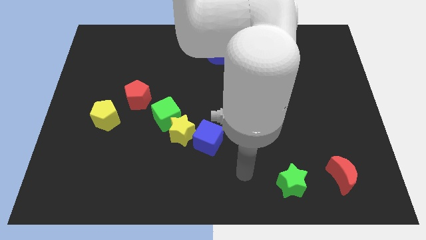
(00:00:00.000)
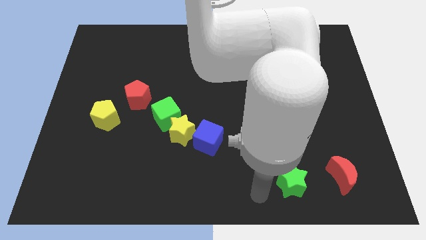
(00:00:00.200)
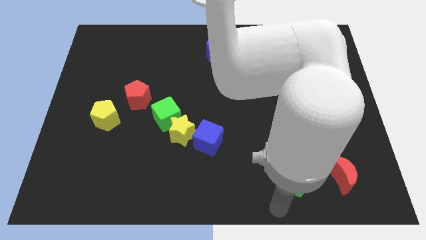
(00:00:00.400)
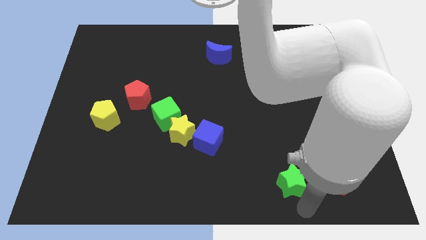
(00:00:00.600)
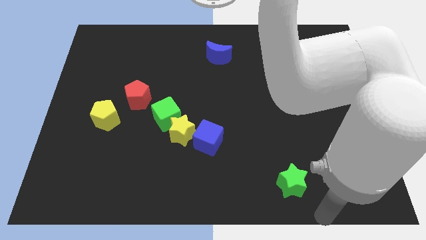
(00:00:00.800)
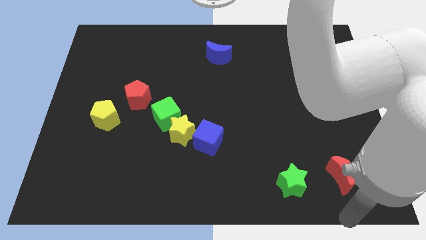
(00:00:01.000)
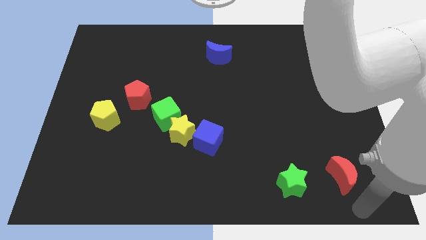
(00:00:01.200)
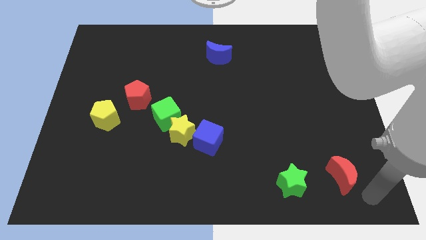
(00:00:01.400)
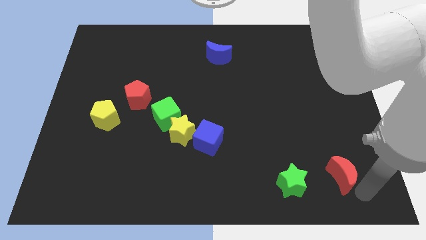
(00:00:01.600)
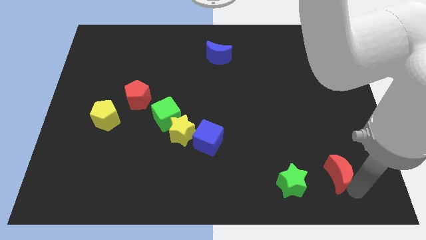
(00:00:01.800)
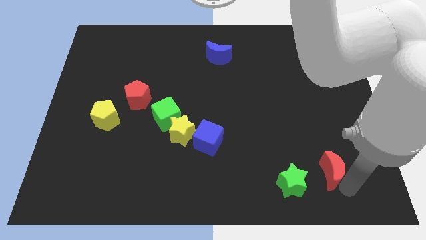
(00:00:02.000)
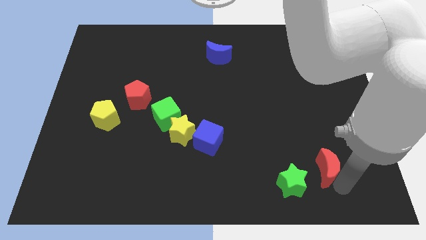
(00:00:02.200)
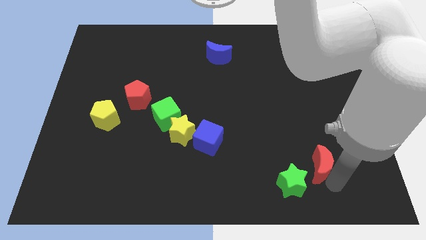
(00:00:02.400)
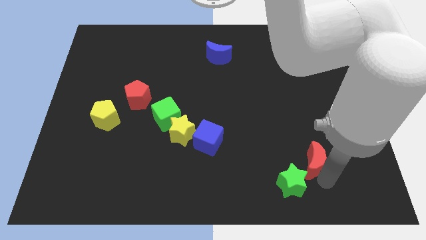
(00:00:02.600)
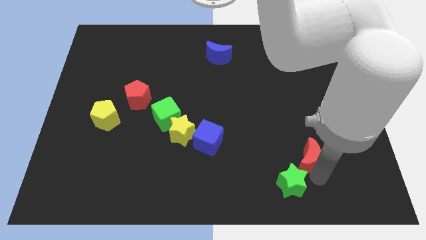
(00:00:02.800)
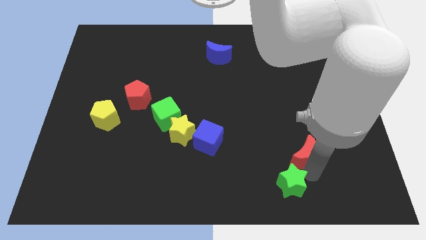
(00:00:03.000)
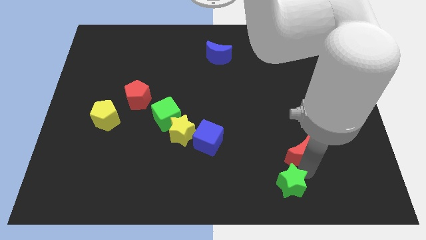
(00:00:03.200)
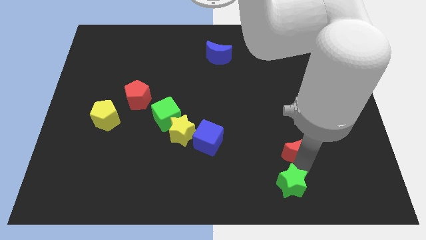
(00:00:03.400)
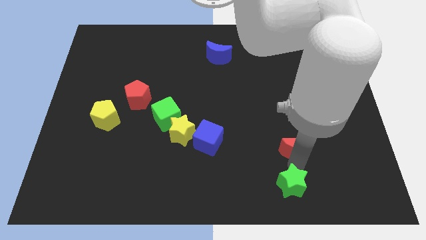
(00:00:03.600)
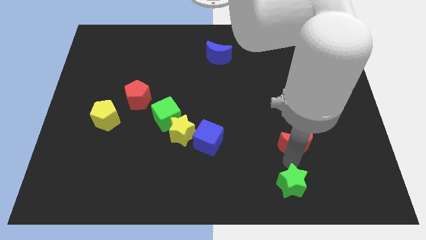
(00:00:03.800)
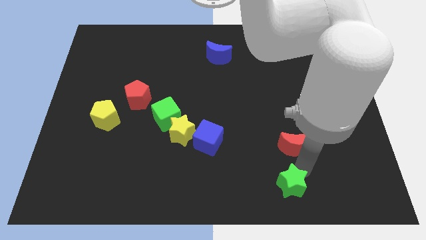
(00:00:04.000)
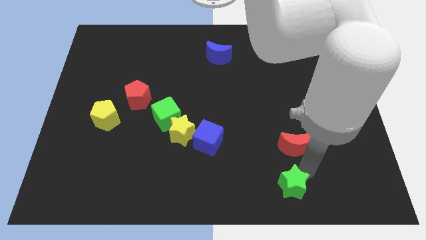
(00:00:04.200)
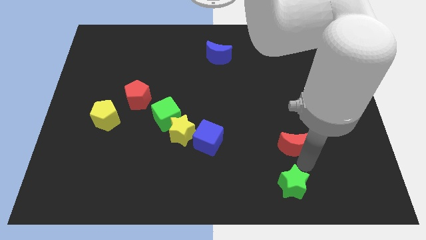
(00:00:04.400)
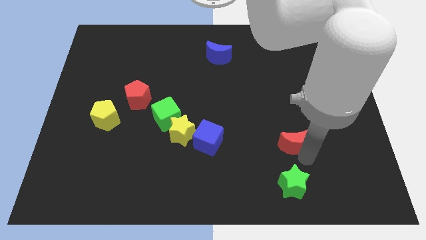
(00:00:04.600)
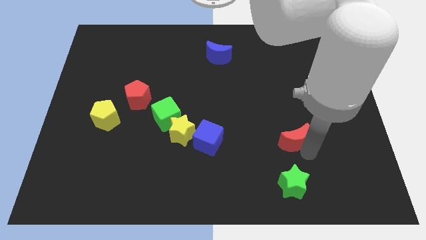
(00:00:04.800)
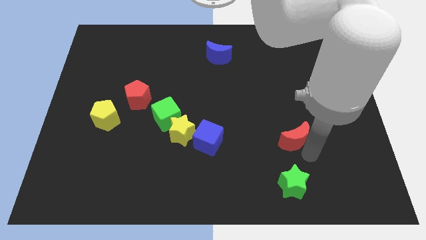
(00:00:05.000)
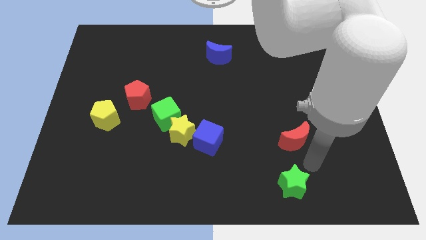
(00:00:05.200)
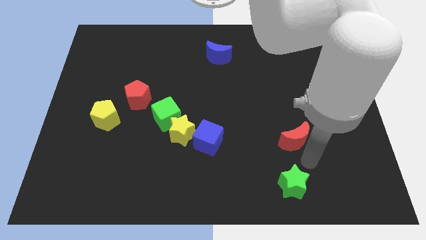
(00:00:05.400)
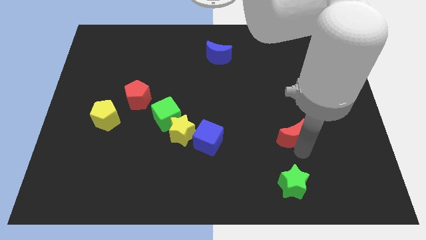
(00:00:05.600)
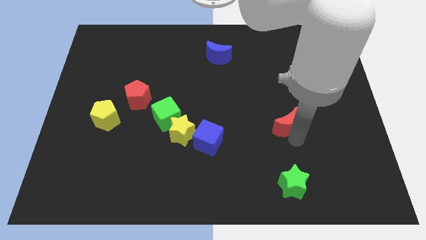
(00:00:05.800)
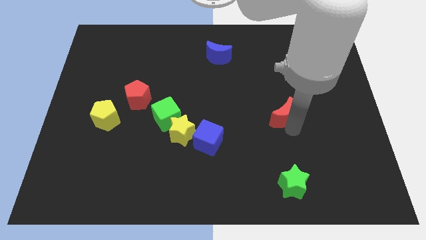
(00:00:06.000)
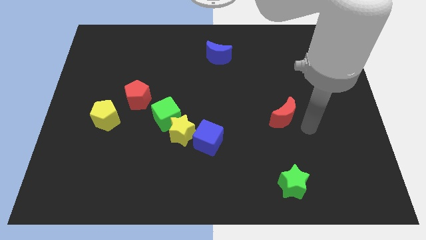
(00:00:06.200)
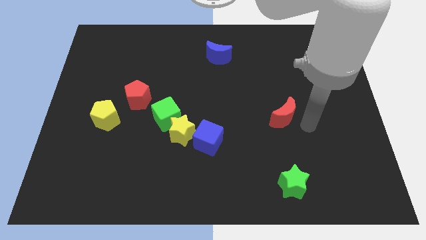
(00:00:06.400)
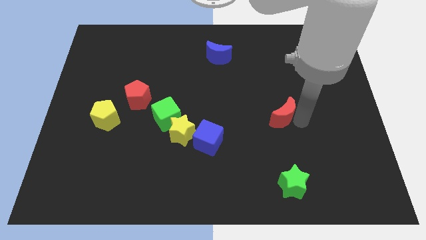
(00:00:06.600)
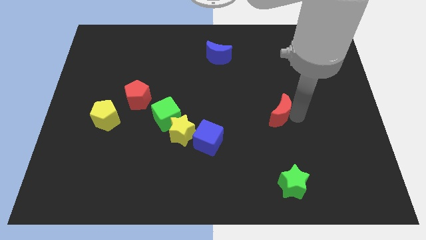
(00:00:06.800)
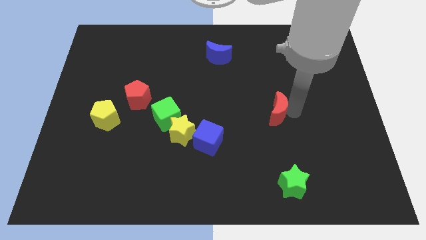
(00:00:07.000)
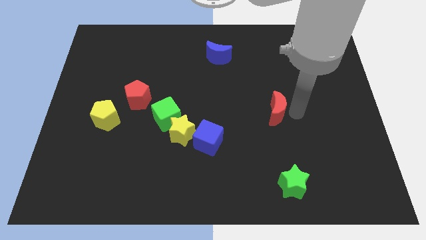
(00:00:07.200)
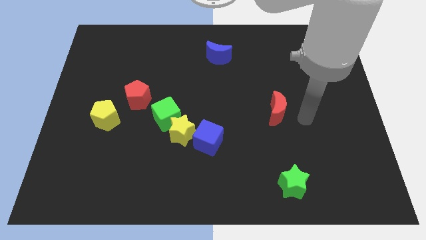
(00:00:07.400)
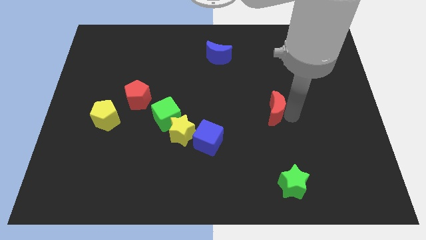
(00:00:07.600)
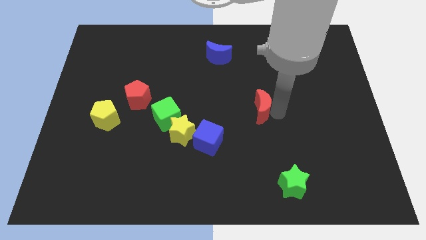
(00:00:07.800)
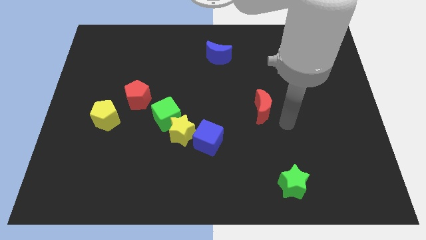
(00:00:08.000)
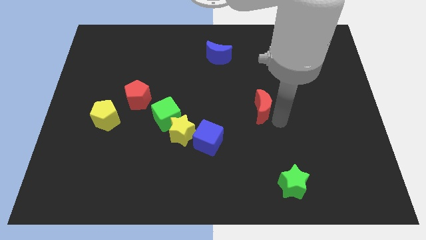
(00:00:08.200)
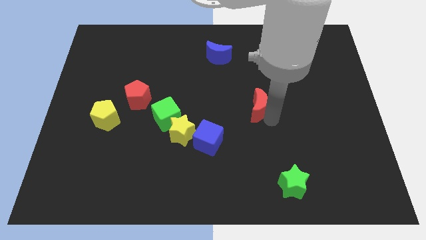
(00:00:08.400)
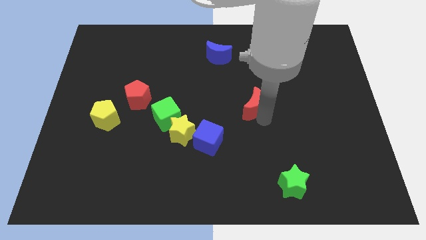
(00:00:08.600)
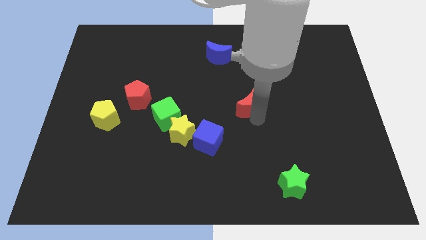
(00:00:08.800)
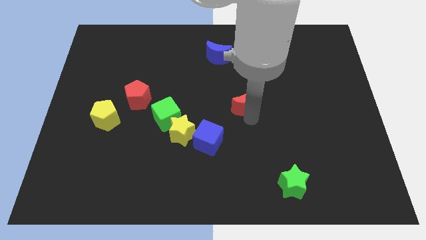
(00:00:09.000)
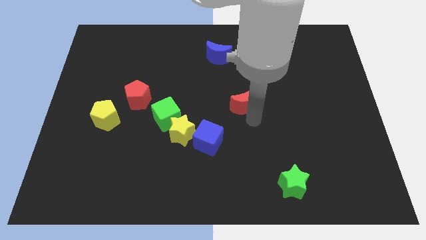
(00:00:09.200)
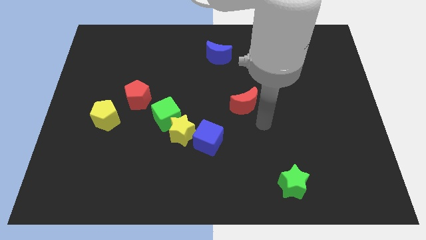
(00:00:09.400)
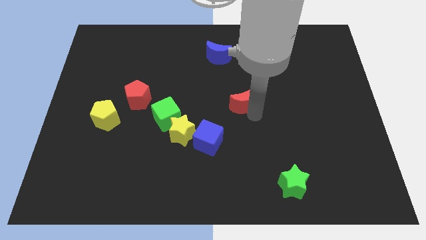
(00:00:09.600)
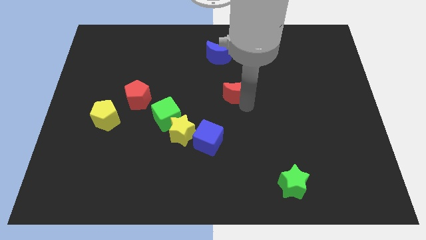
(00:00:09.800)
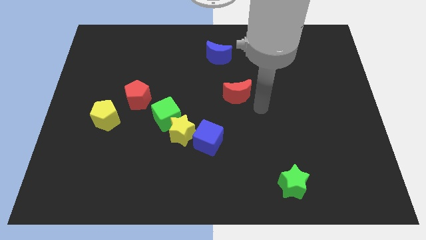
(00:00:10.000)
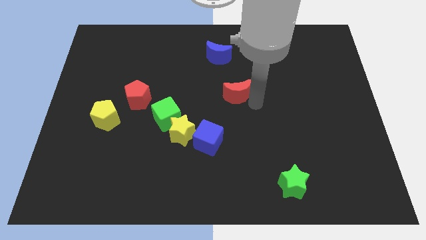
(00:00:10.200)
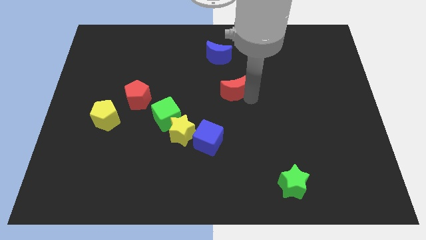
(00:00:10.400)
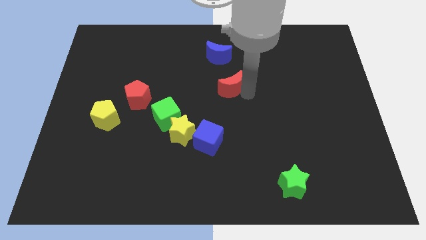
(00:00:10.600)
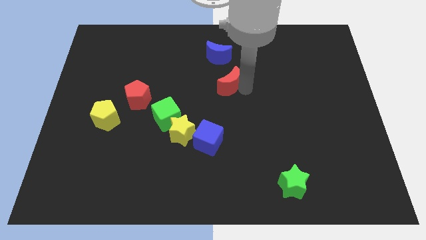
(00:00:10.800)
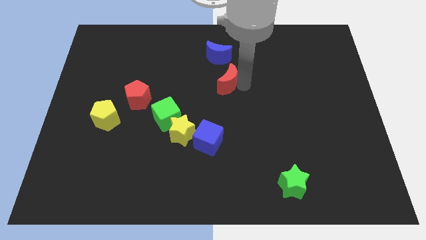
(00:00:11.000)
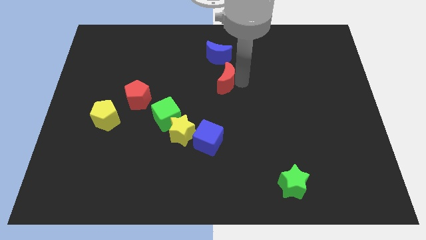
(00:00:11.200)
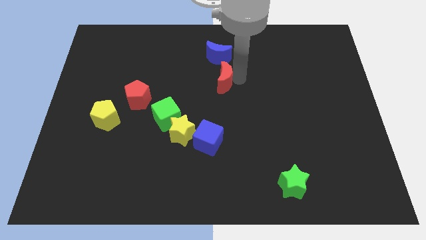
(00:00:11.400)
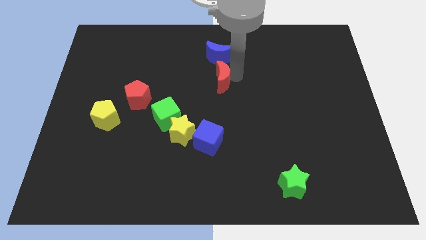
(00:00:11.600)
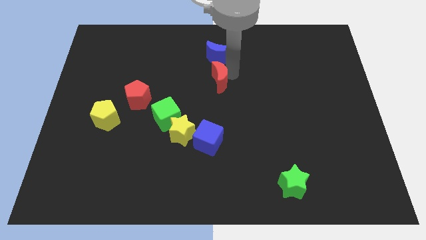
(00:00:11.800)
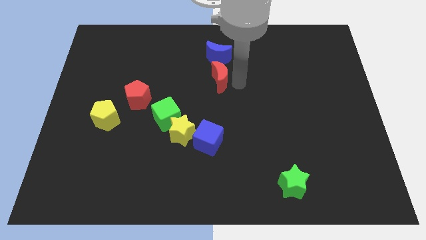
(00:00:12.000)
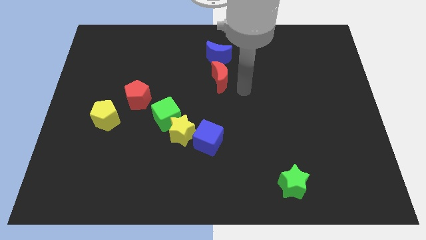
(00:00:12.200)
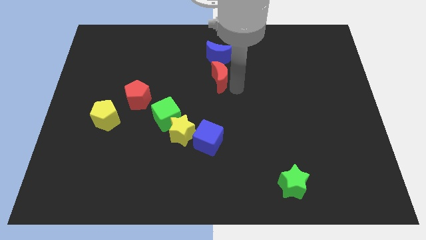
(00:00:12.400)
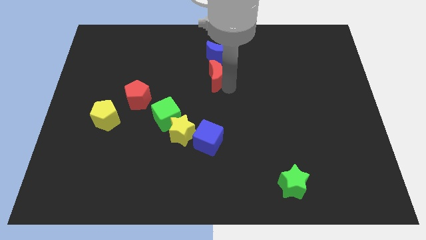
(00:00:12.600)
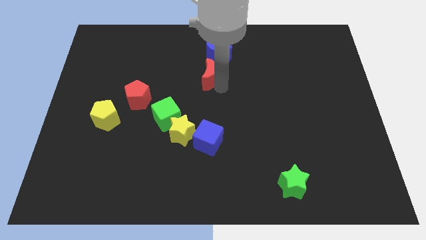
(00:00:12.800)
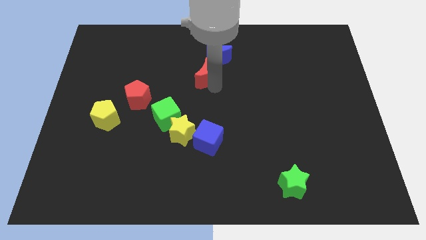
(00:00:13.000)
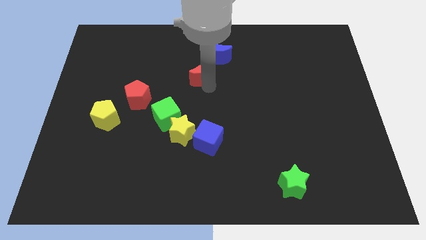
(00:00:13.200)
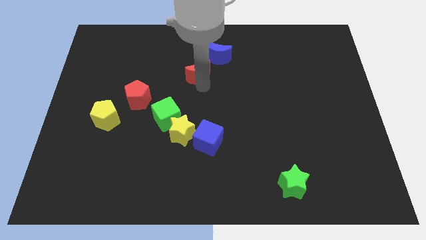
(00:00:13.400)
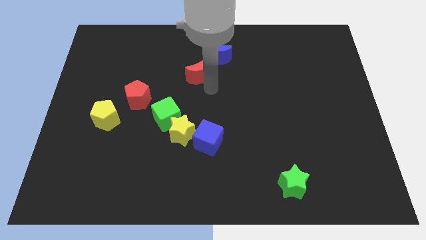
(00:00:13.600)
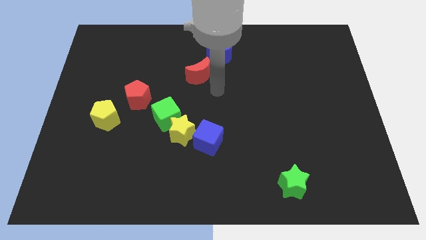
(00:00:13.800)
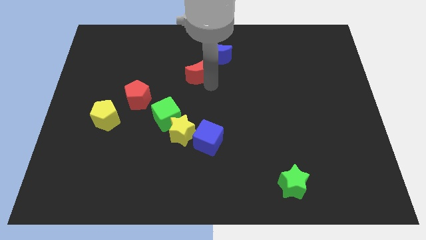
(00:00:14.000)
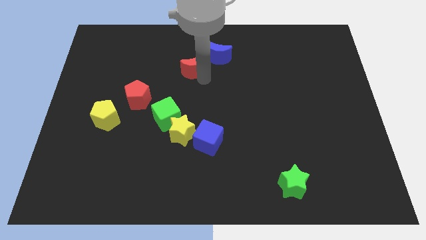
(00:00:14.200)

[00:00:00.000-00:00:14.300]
put the red moon to the left of the blue moon
